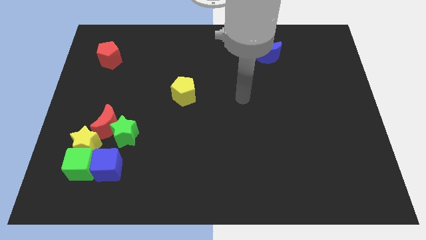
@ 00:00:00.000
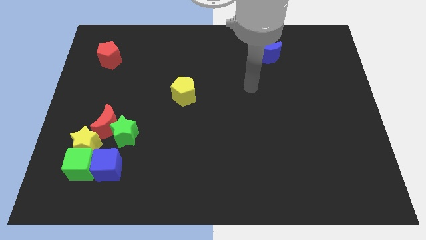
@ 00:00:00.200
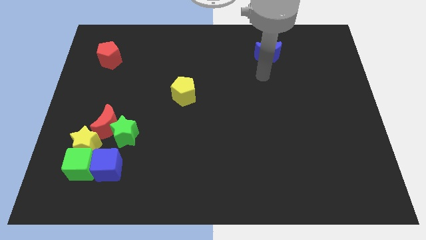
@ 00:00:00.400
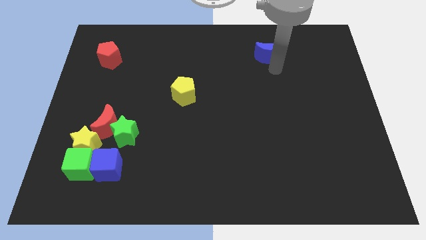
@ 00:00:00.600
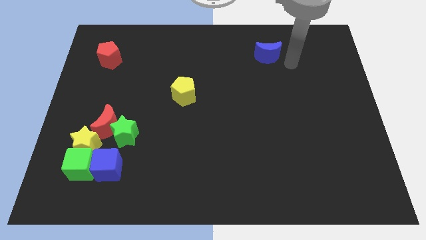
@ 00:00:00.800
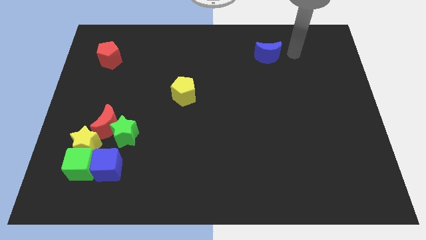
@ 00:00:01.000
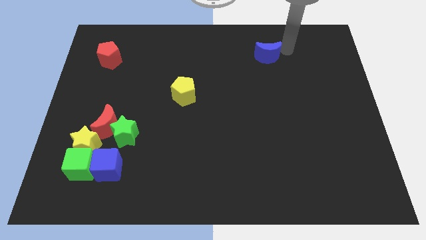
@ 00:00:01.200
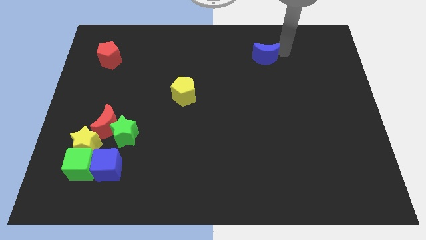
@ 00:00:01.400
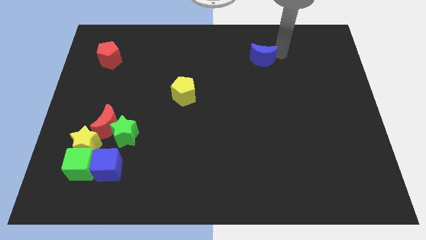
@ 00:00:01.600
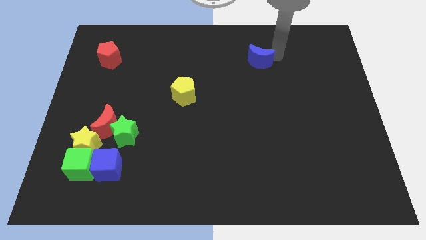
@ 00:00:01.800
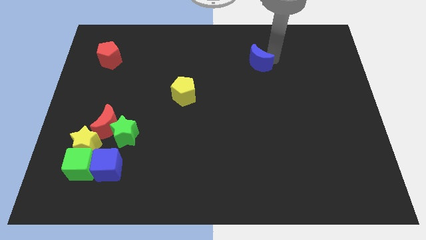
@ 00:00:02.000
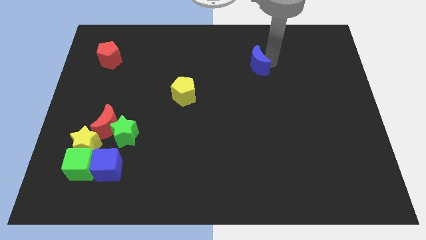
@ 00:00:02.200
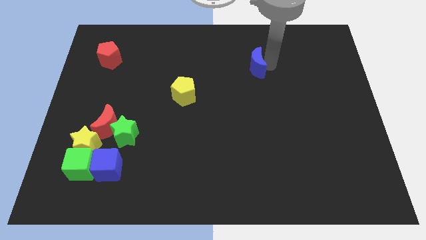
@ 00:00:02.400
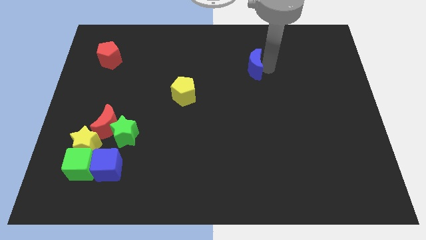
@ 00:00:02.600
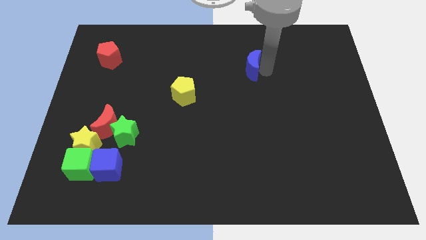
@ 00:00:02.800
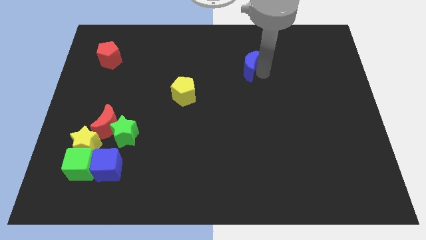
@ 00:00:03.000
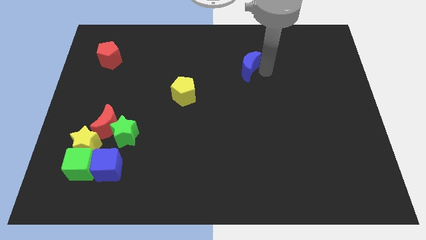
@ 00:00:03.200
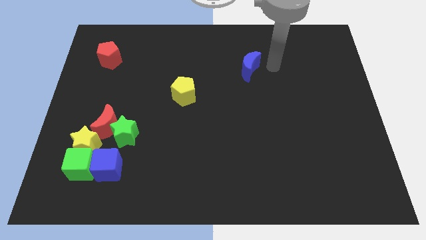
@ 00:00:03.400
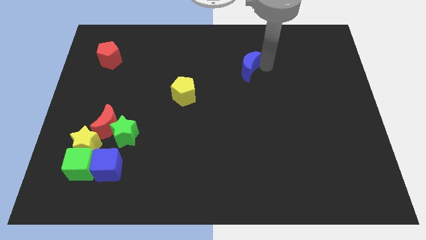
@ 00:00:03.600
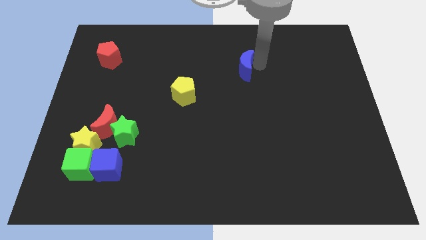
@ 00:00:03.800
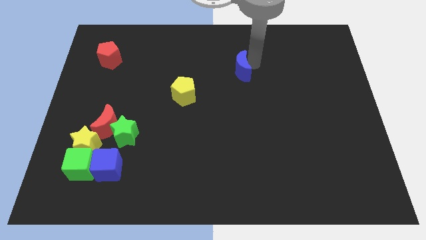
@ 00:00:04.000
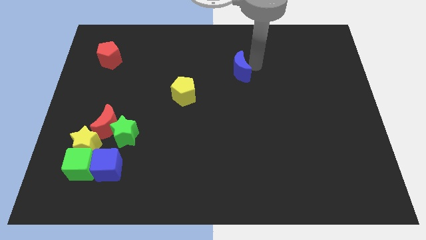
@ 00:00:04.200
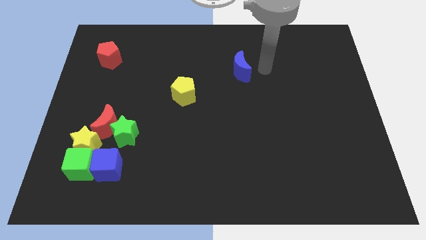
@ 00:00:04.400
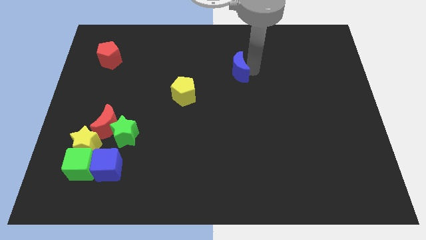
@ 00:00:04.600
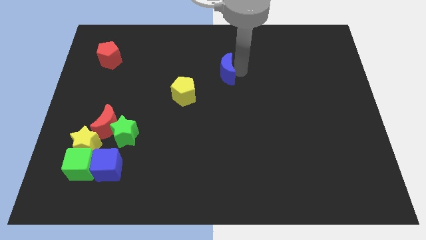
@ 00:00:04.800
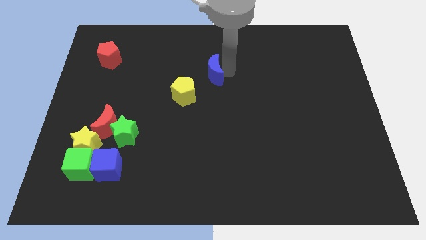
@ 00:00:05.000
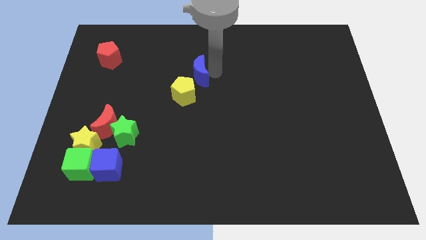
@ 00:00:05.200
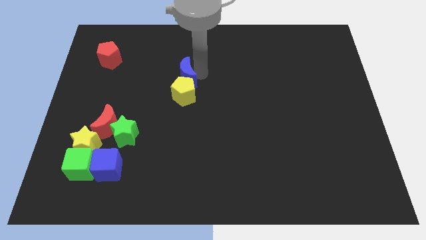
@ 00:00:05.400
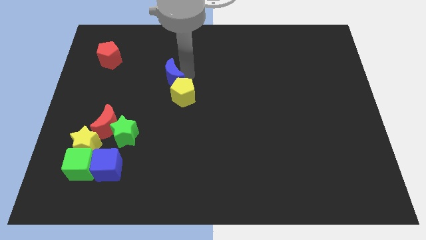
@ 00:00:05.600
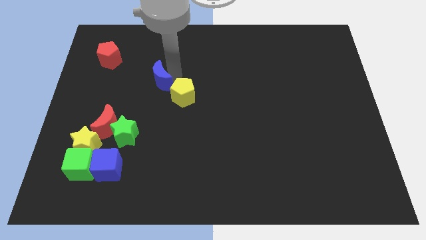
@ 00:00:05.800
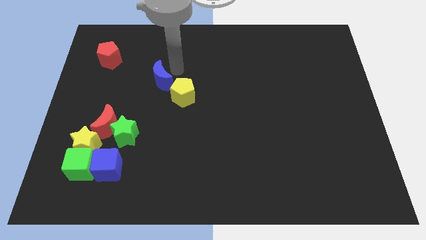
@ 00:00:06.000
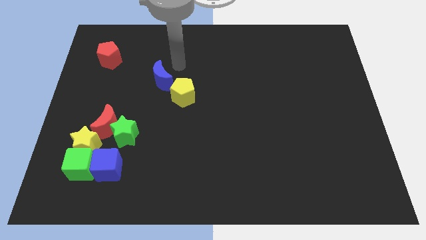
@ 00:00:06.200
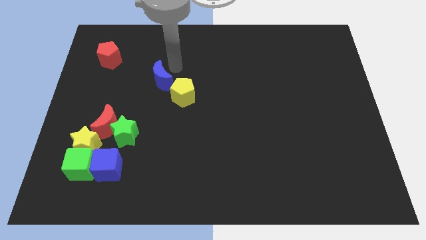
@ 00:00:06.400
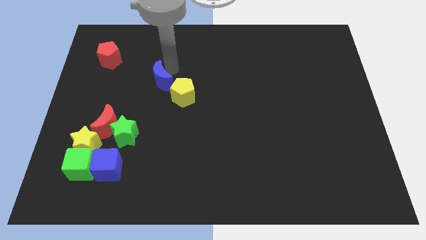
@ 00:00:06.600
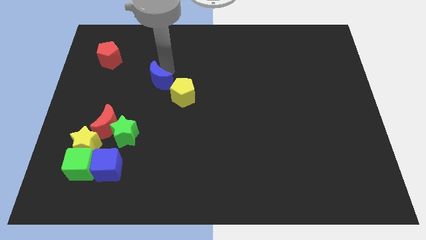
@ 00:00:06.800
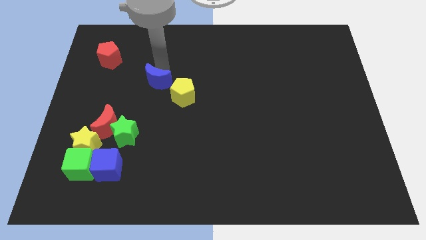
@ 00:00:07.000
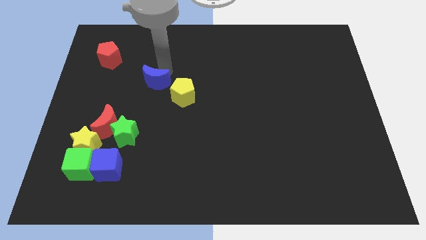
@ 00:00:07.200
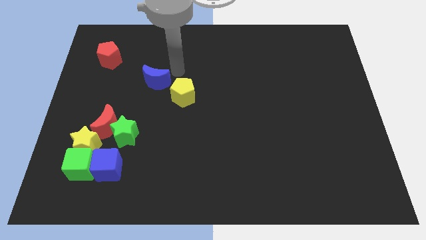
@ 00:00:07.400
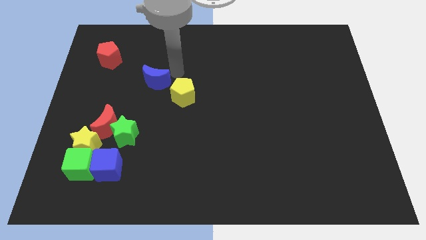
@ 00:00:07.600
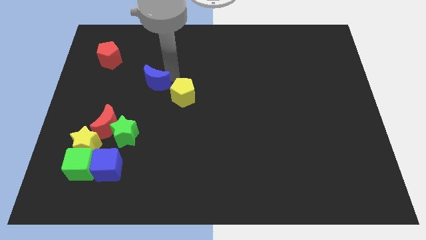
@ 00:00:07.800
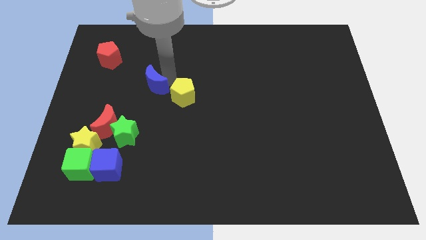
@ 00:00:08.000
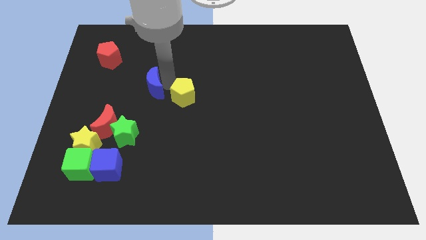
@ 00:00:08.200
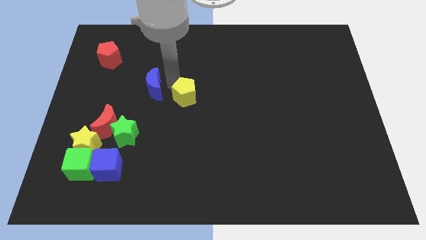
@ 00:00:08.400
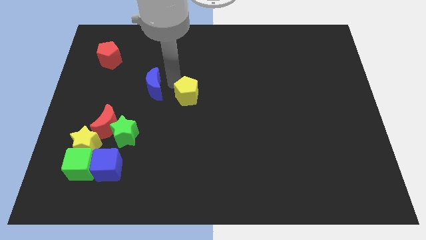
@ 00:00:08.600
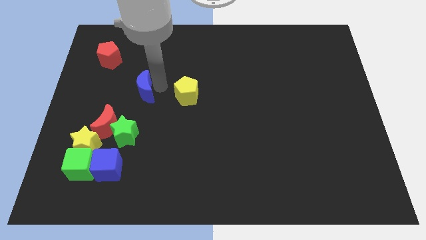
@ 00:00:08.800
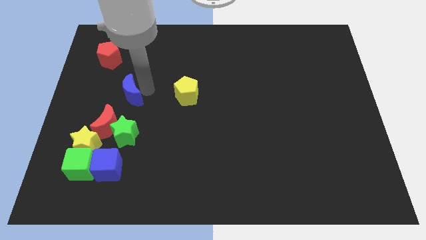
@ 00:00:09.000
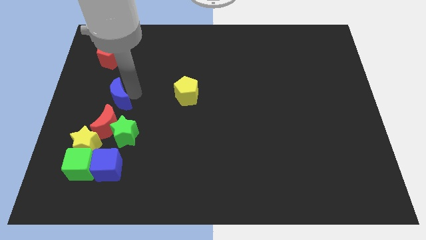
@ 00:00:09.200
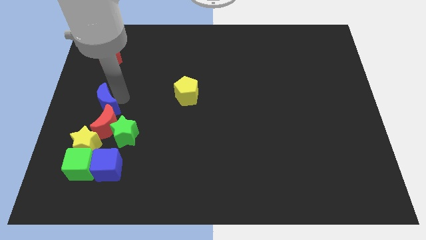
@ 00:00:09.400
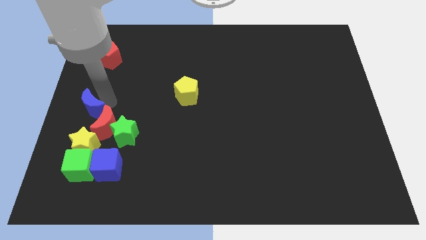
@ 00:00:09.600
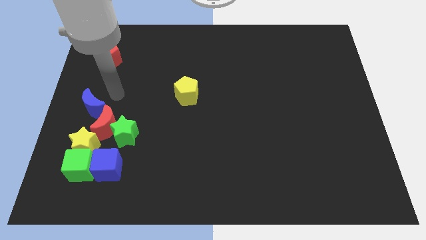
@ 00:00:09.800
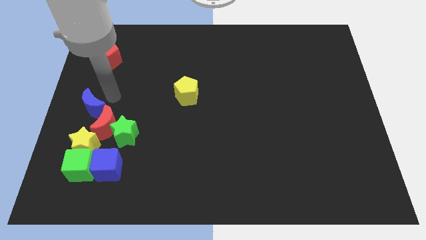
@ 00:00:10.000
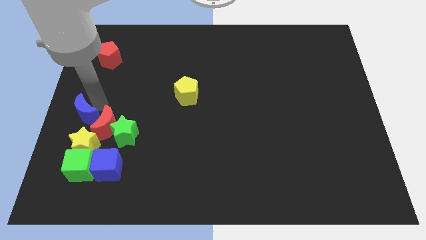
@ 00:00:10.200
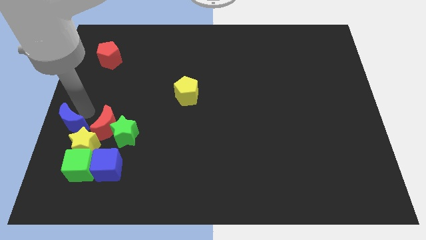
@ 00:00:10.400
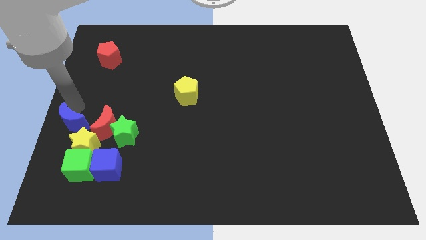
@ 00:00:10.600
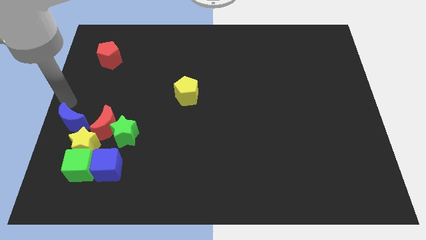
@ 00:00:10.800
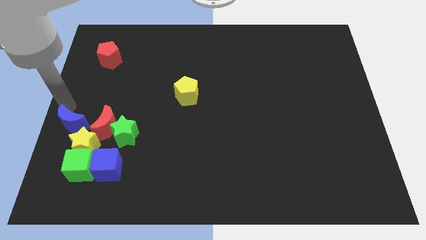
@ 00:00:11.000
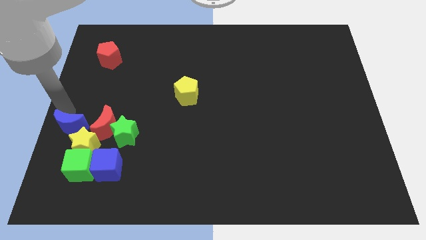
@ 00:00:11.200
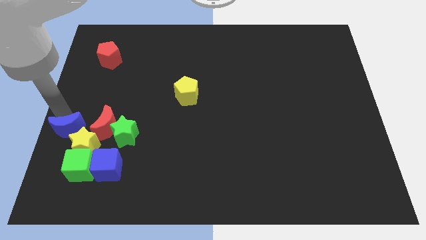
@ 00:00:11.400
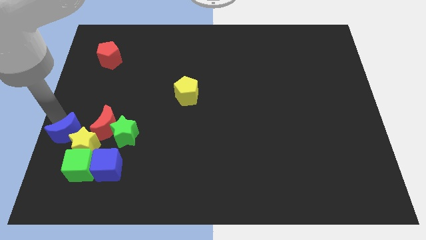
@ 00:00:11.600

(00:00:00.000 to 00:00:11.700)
move the blue moon to the bottom left side of the red moon

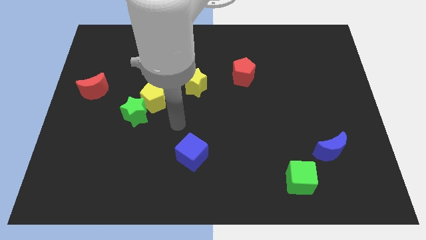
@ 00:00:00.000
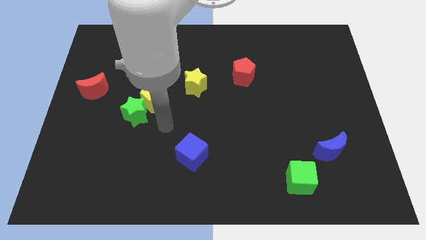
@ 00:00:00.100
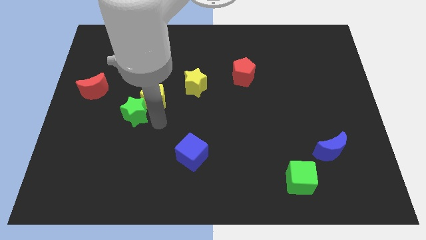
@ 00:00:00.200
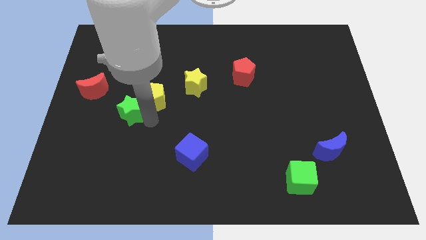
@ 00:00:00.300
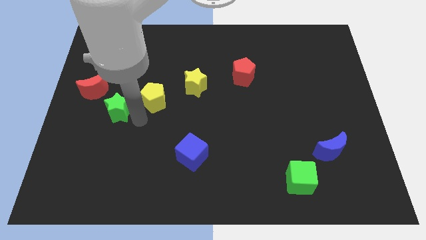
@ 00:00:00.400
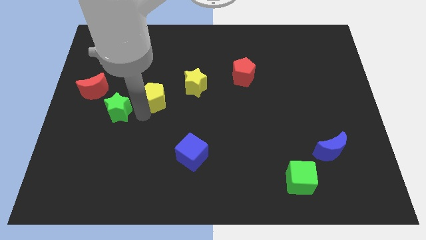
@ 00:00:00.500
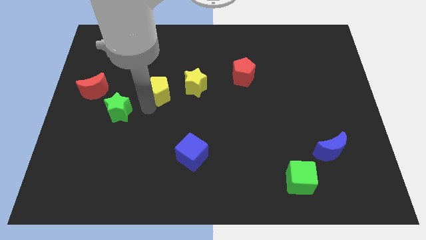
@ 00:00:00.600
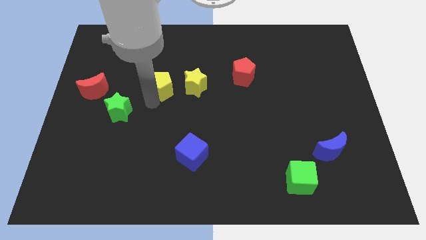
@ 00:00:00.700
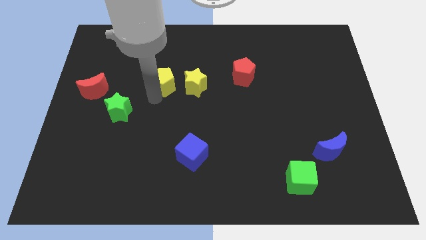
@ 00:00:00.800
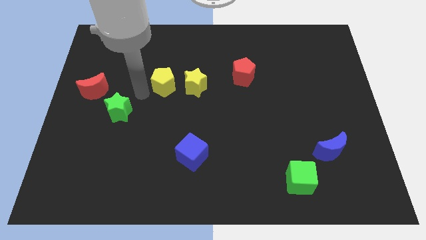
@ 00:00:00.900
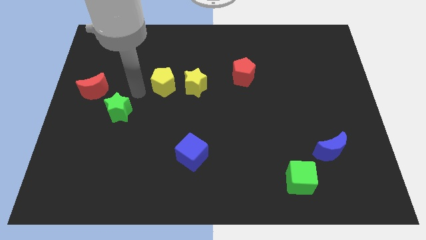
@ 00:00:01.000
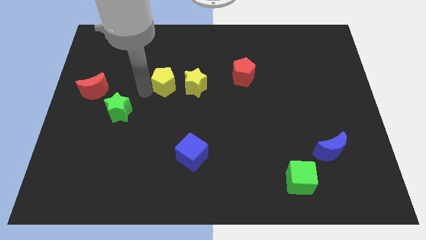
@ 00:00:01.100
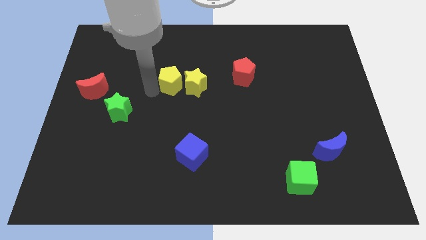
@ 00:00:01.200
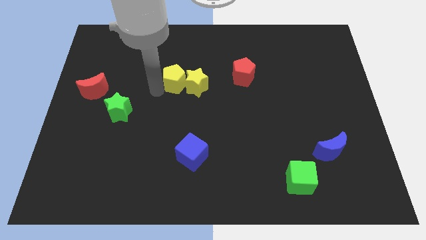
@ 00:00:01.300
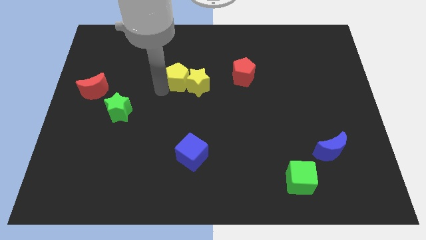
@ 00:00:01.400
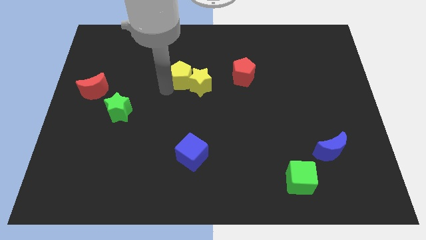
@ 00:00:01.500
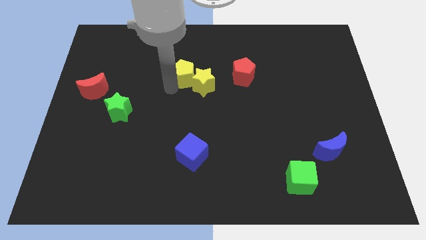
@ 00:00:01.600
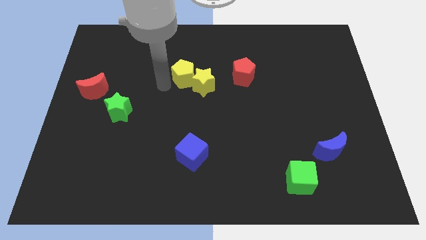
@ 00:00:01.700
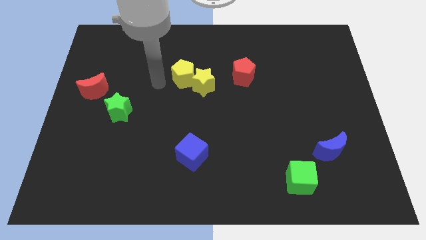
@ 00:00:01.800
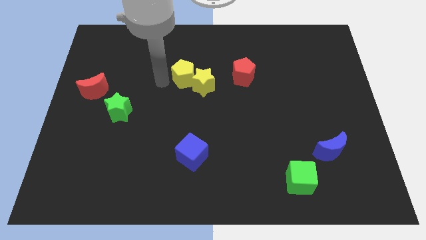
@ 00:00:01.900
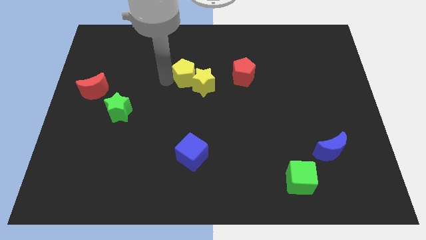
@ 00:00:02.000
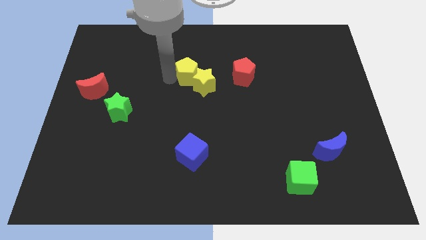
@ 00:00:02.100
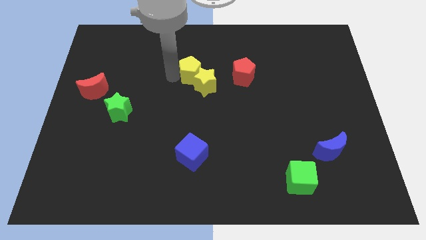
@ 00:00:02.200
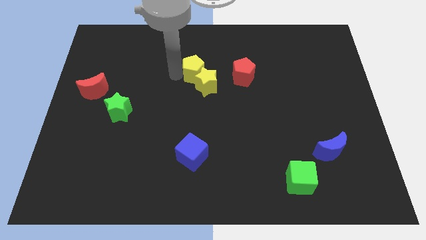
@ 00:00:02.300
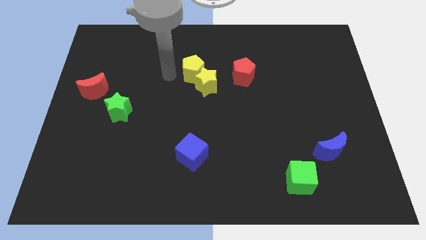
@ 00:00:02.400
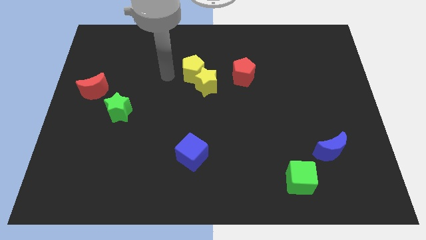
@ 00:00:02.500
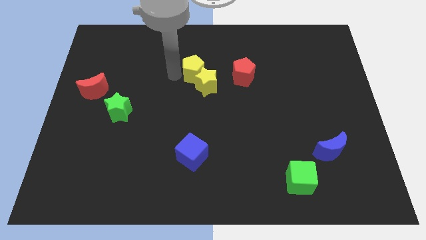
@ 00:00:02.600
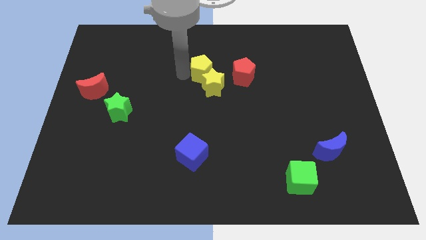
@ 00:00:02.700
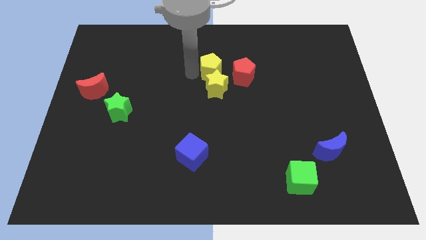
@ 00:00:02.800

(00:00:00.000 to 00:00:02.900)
move the yellow pentagon to the top right of the yellow star
